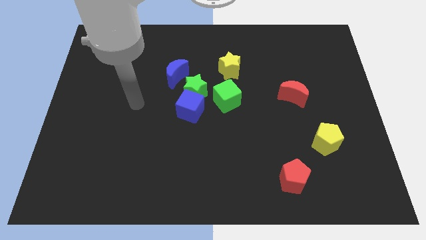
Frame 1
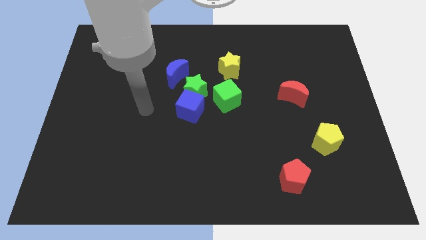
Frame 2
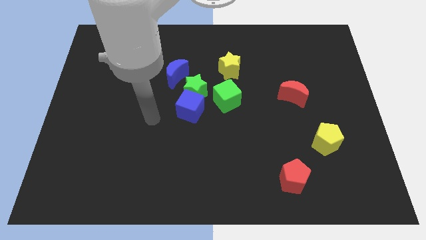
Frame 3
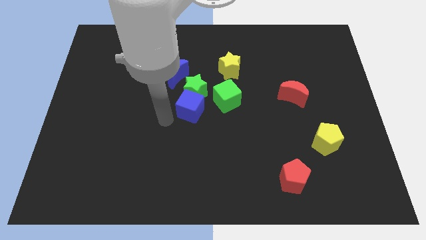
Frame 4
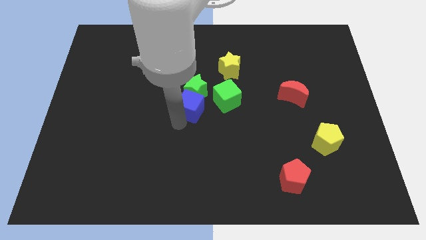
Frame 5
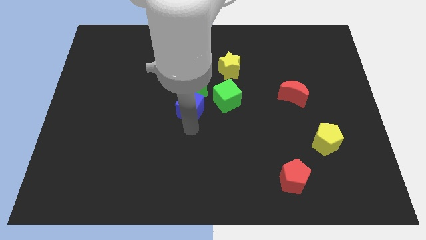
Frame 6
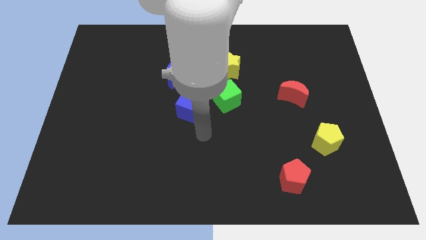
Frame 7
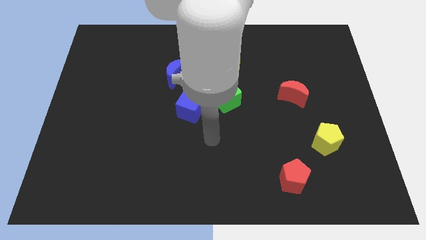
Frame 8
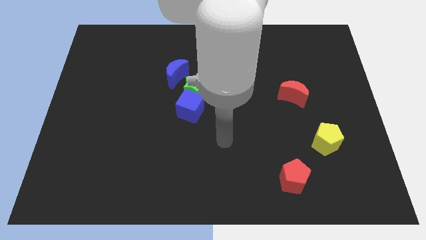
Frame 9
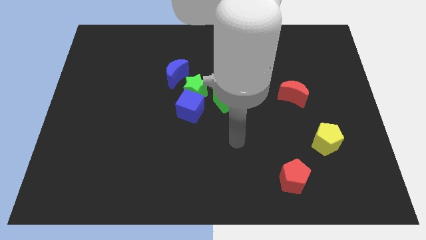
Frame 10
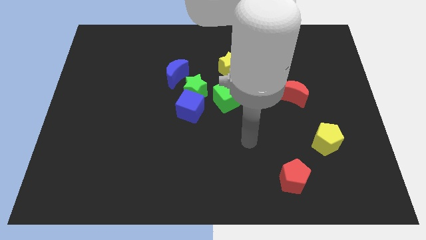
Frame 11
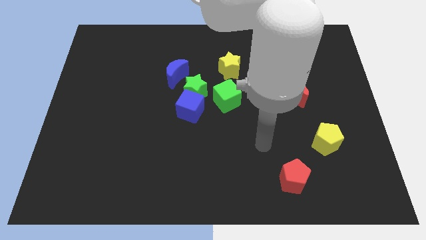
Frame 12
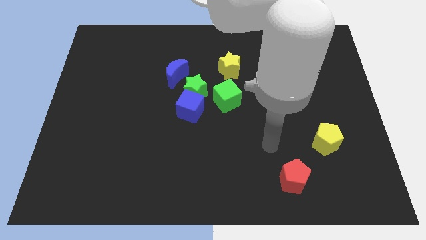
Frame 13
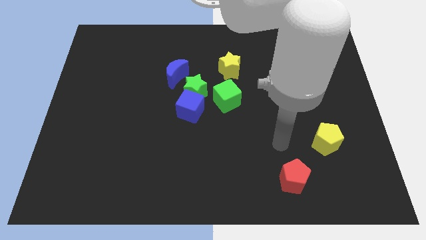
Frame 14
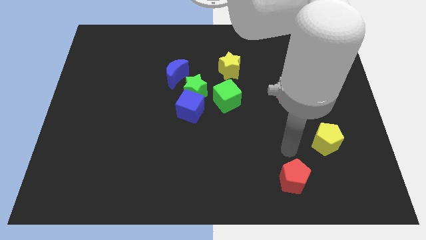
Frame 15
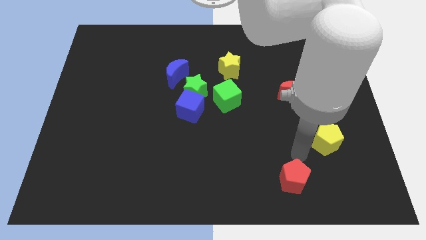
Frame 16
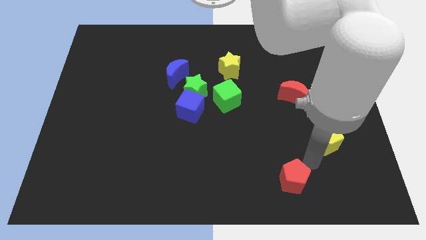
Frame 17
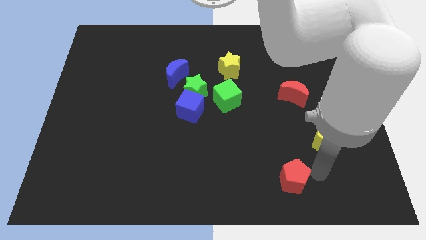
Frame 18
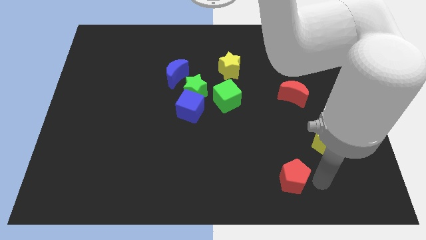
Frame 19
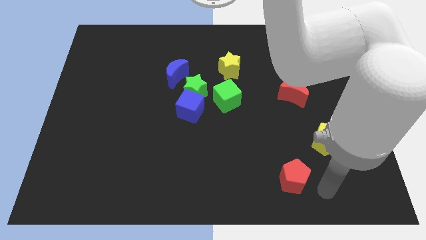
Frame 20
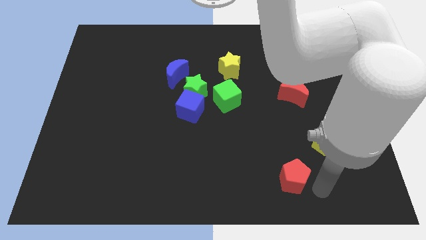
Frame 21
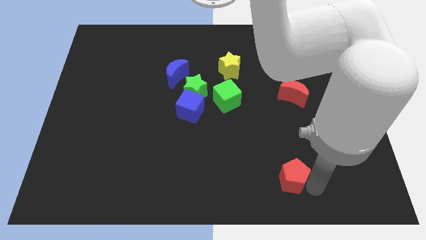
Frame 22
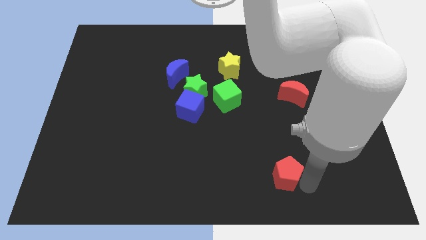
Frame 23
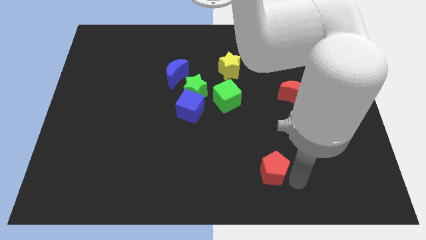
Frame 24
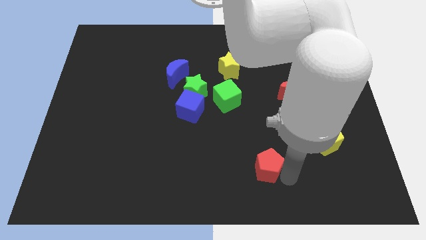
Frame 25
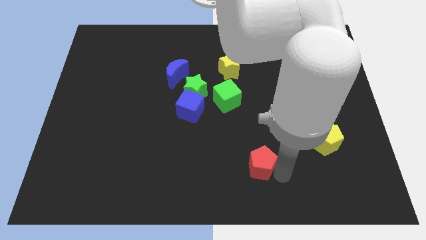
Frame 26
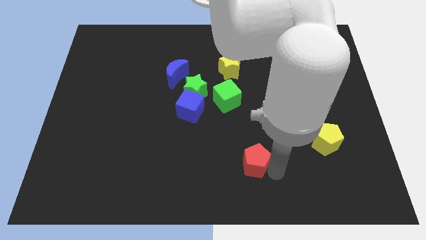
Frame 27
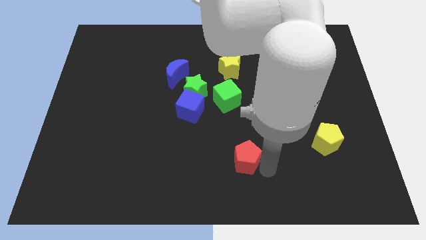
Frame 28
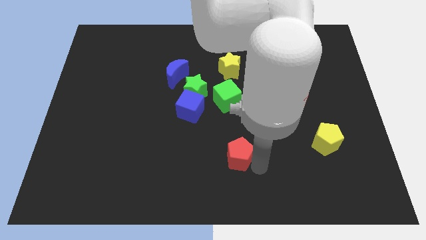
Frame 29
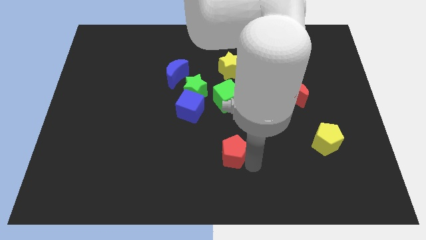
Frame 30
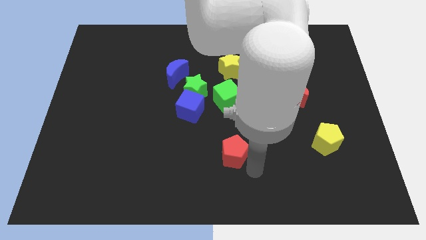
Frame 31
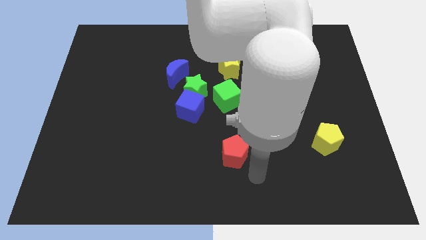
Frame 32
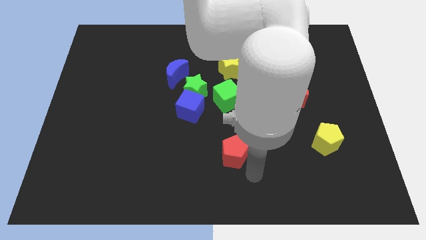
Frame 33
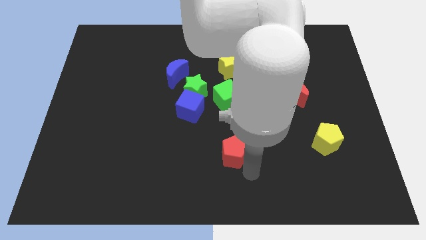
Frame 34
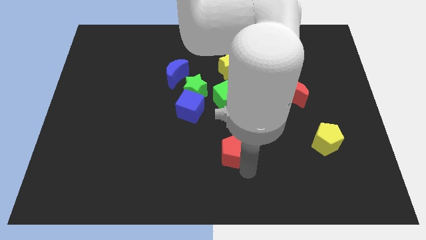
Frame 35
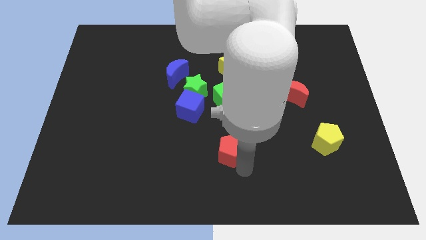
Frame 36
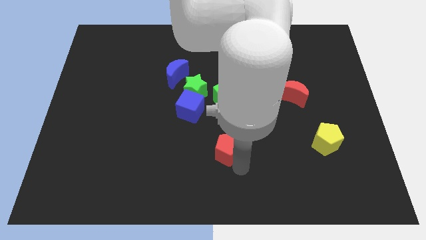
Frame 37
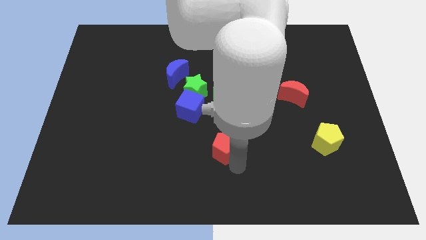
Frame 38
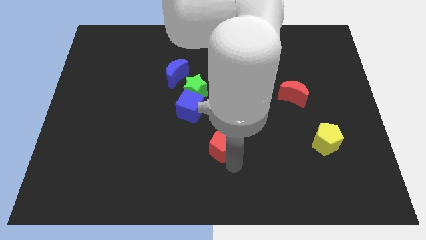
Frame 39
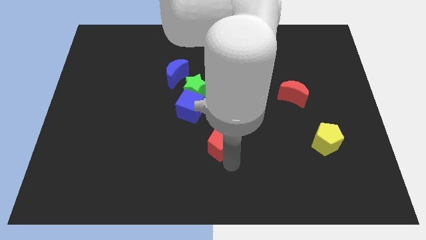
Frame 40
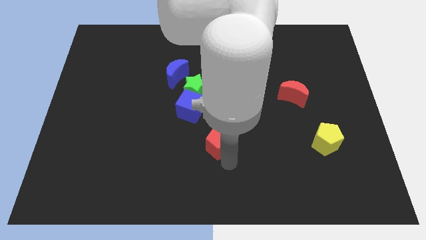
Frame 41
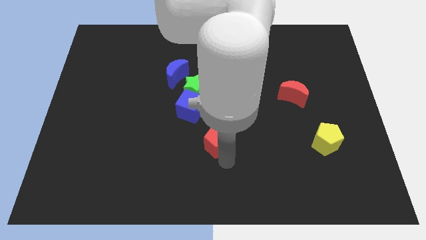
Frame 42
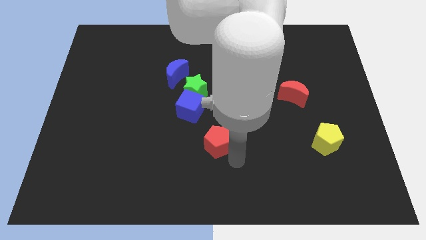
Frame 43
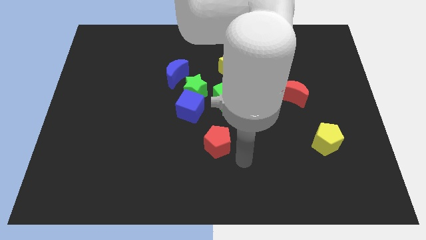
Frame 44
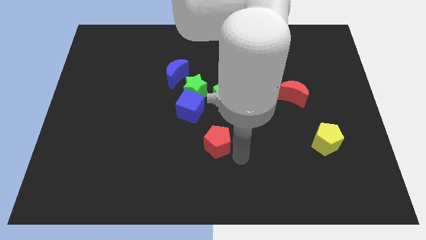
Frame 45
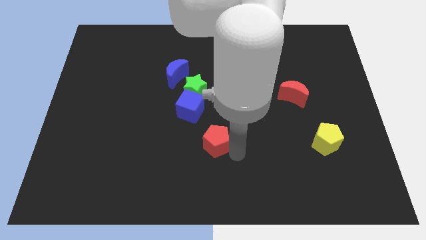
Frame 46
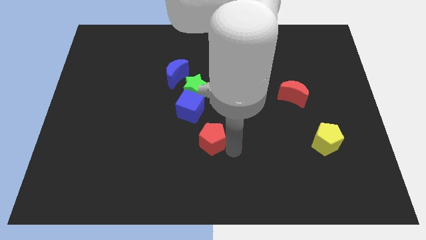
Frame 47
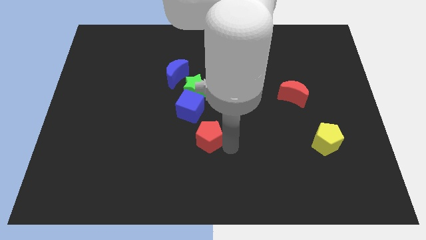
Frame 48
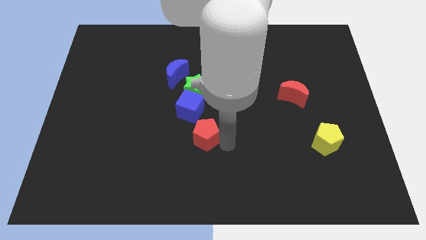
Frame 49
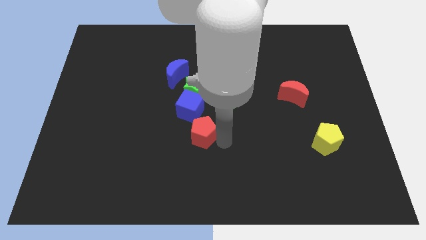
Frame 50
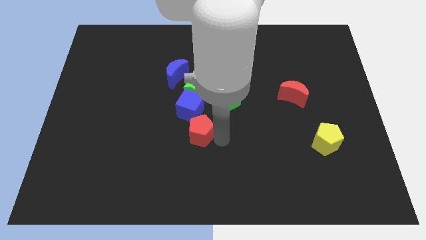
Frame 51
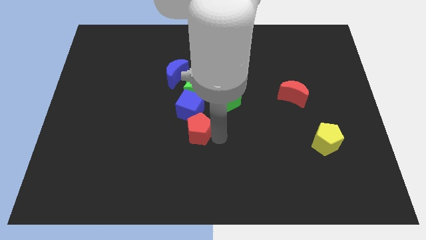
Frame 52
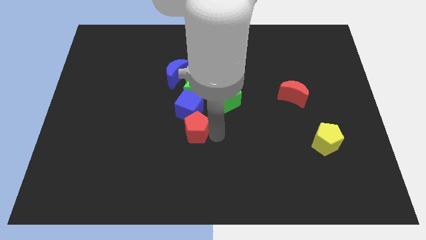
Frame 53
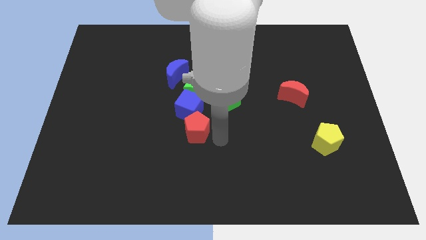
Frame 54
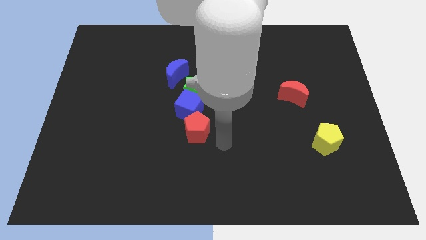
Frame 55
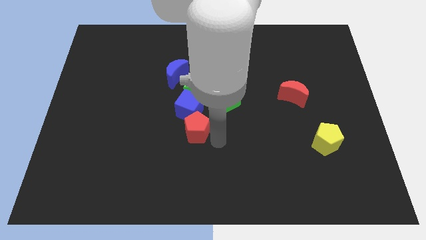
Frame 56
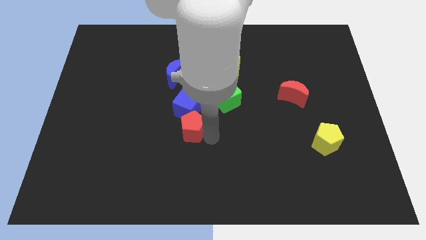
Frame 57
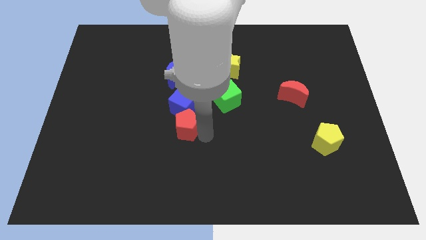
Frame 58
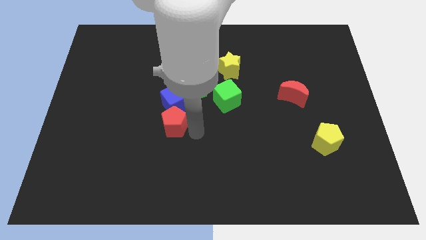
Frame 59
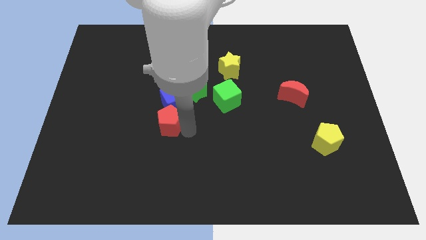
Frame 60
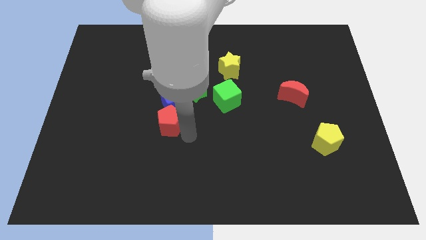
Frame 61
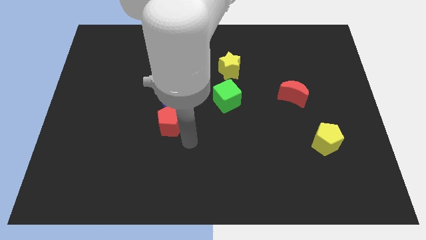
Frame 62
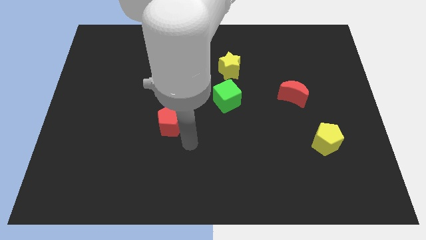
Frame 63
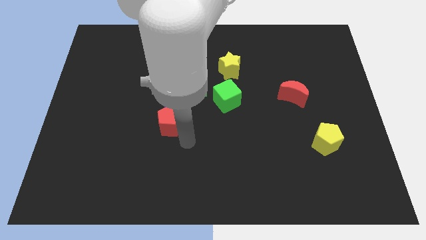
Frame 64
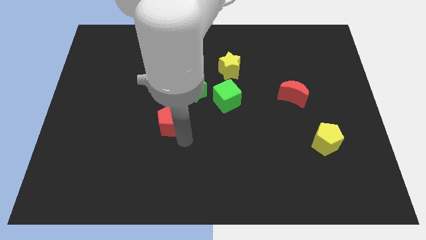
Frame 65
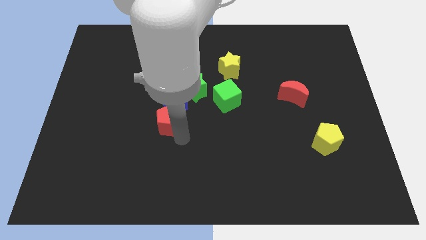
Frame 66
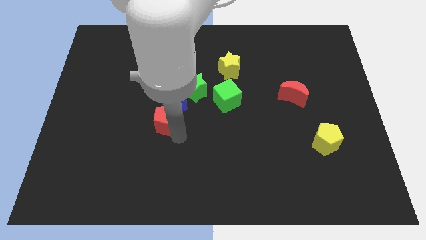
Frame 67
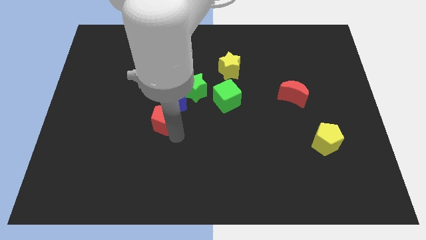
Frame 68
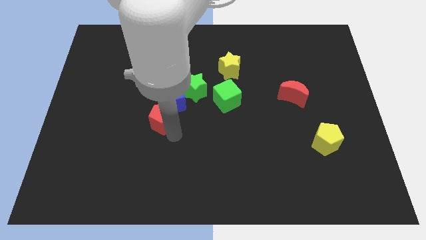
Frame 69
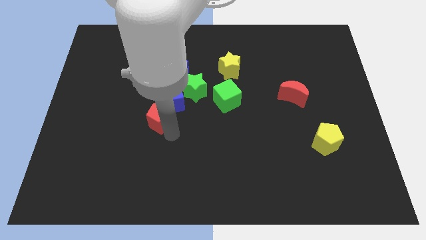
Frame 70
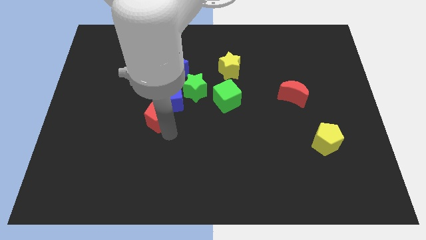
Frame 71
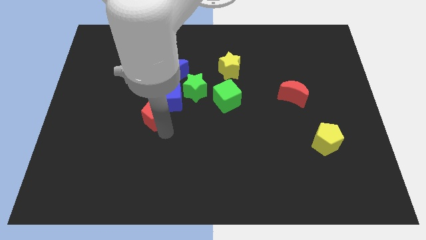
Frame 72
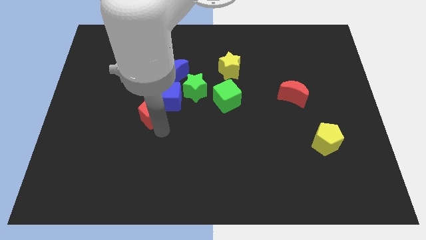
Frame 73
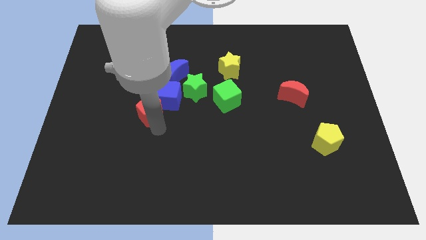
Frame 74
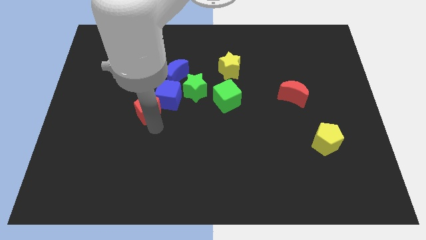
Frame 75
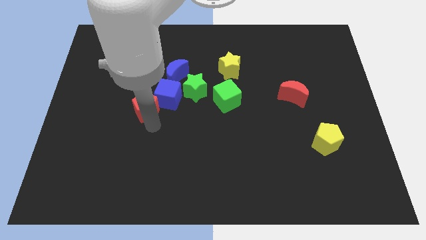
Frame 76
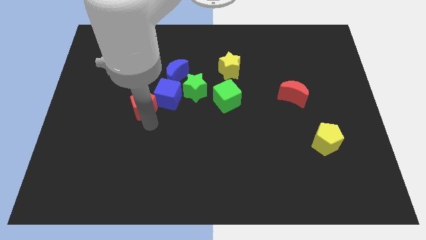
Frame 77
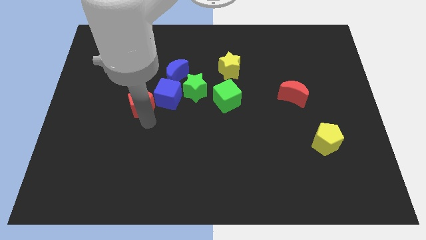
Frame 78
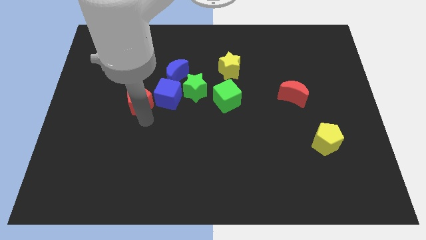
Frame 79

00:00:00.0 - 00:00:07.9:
put the red pentagon just left of the green star

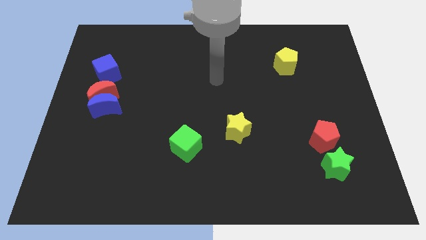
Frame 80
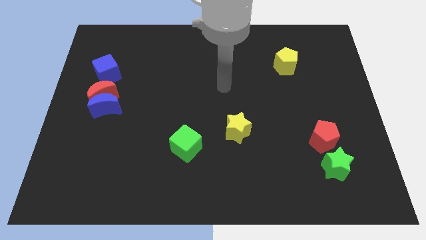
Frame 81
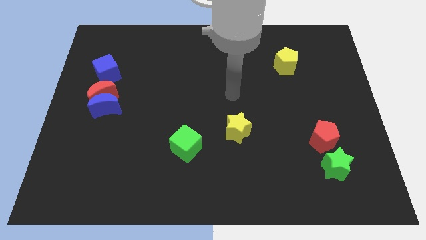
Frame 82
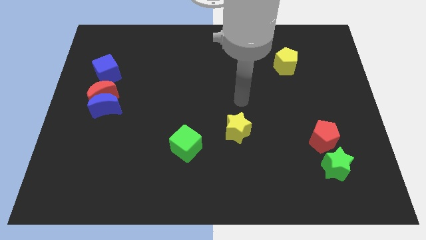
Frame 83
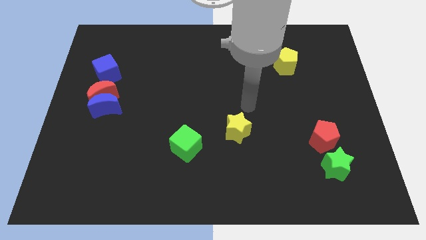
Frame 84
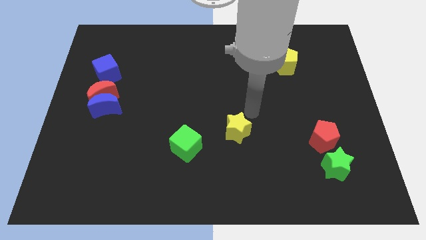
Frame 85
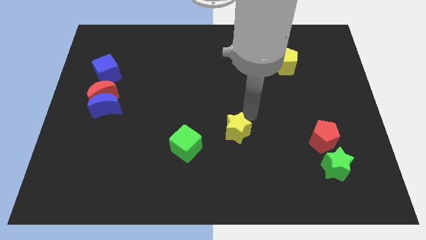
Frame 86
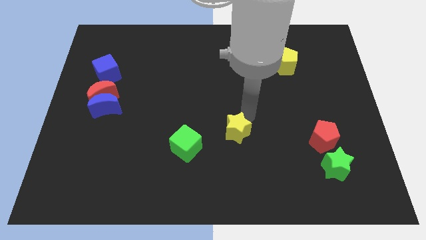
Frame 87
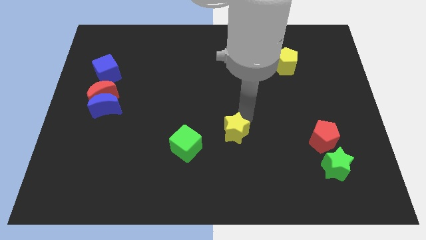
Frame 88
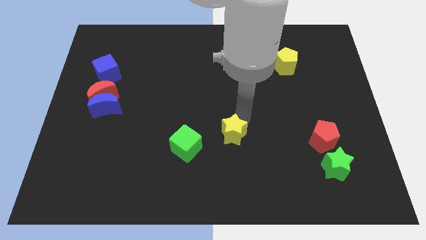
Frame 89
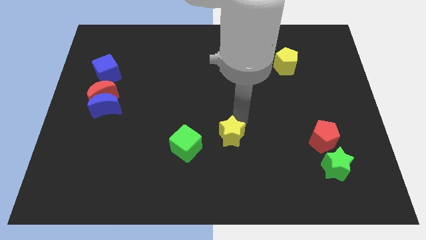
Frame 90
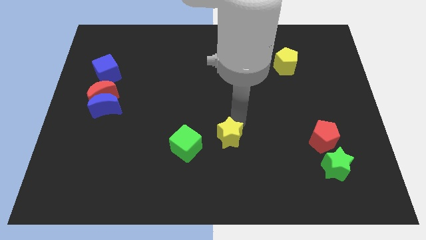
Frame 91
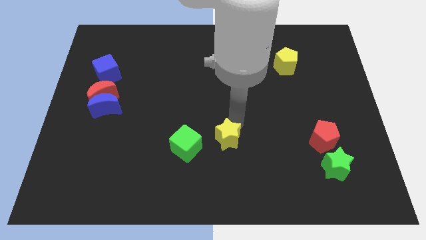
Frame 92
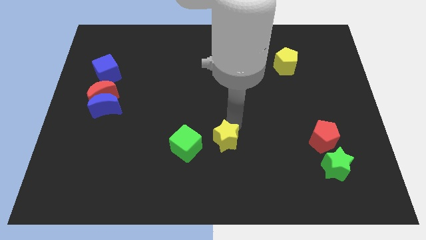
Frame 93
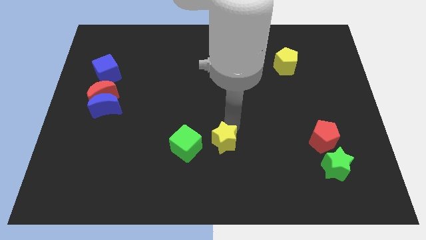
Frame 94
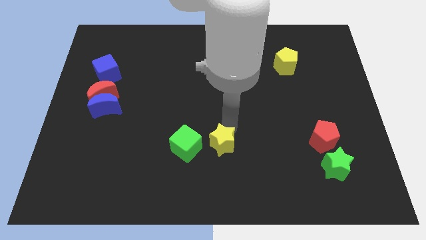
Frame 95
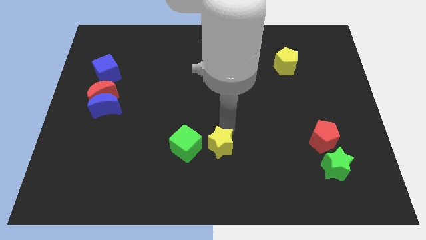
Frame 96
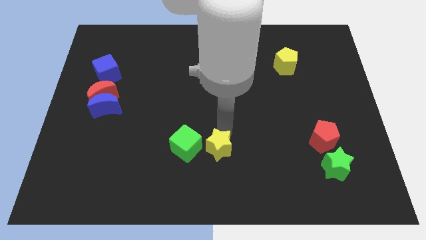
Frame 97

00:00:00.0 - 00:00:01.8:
put the yellow star to the bottom right of the green cube
